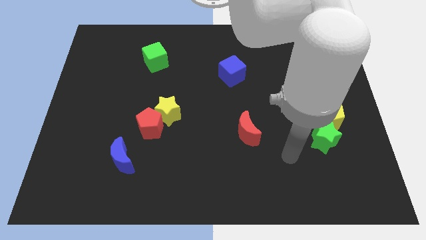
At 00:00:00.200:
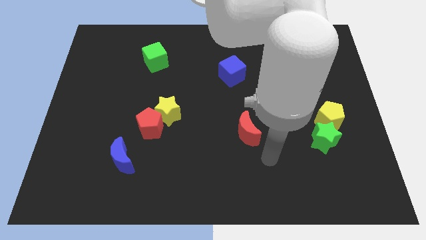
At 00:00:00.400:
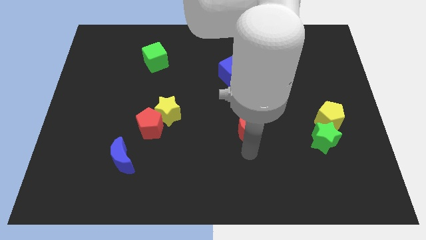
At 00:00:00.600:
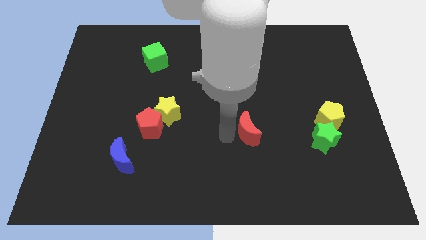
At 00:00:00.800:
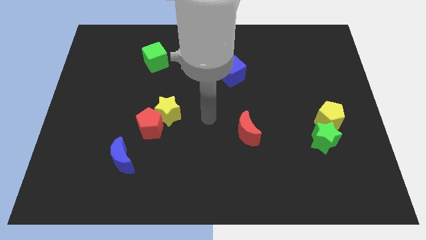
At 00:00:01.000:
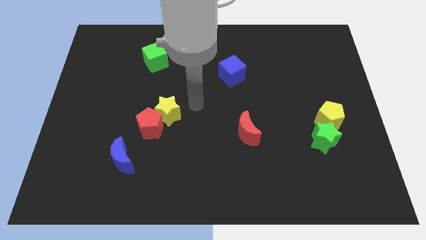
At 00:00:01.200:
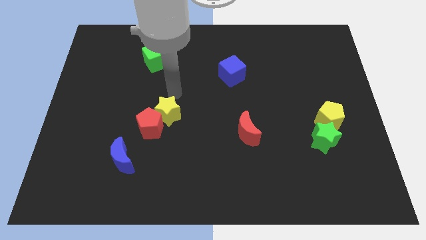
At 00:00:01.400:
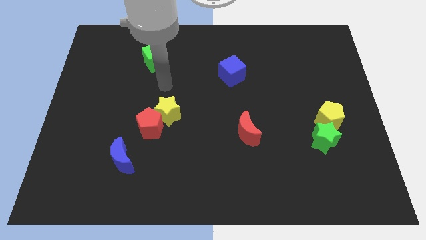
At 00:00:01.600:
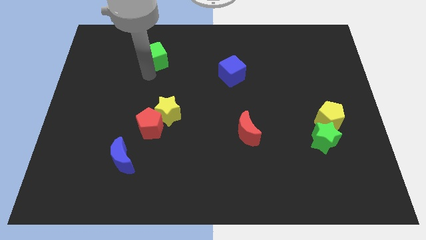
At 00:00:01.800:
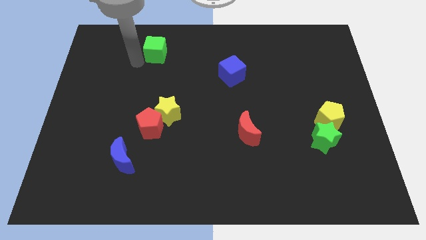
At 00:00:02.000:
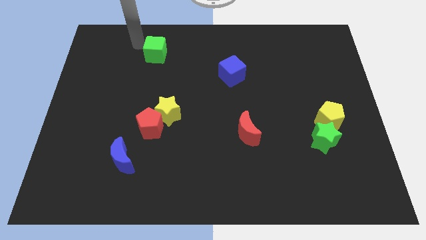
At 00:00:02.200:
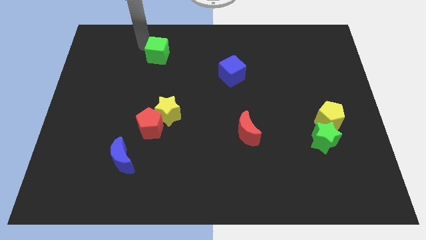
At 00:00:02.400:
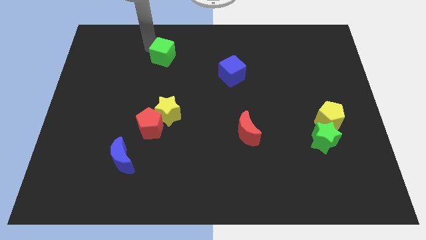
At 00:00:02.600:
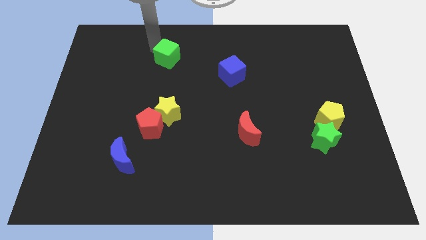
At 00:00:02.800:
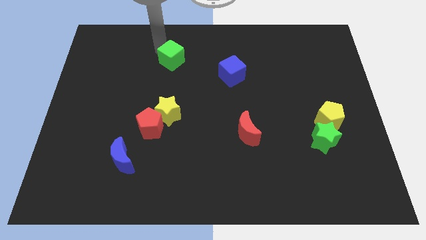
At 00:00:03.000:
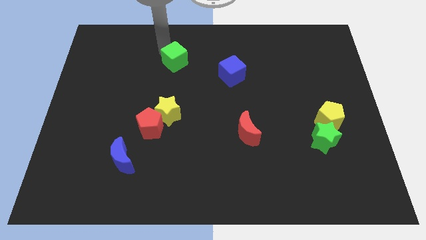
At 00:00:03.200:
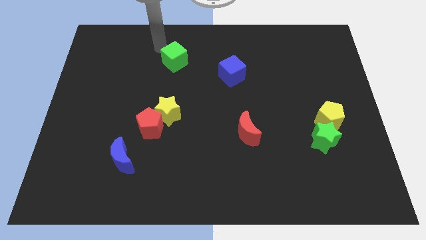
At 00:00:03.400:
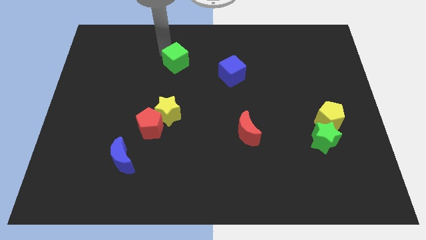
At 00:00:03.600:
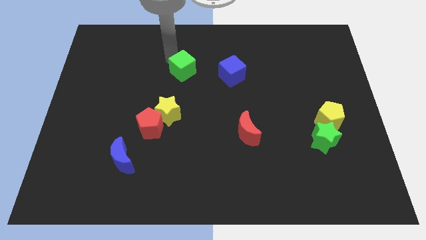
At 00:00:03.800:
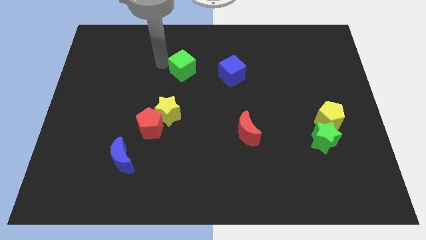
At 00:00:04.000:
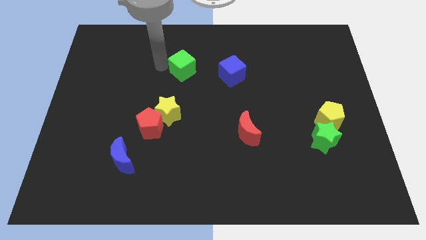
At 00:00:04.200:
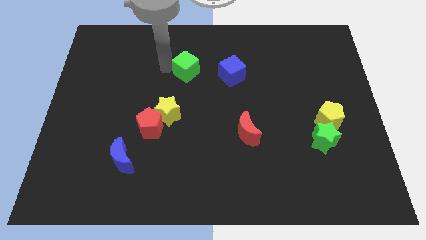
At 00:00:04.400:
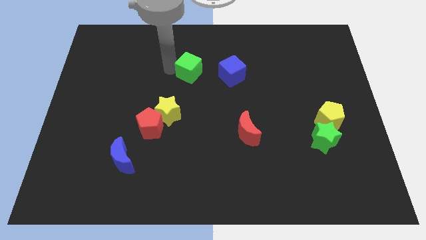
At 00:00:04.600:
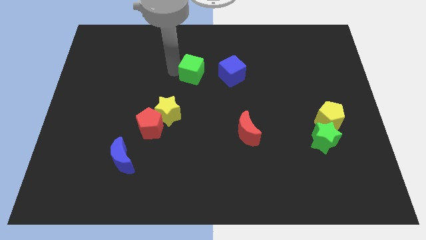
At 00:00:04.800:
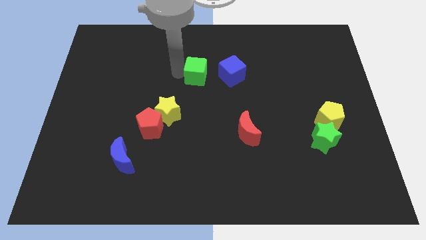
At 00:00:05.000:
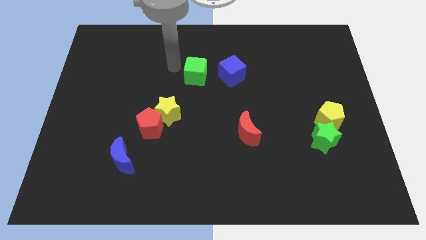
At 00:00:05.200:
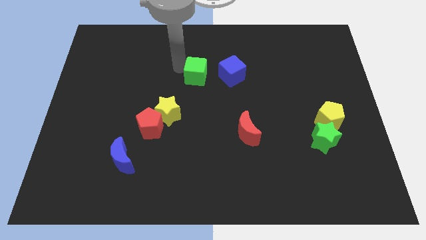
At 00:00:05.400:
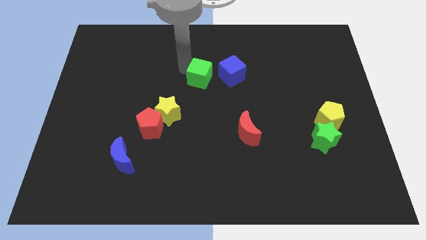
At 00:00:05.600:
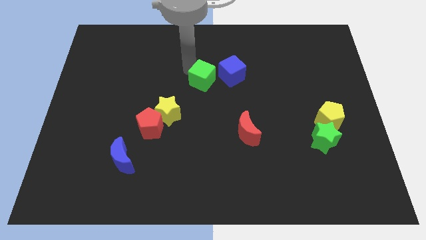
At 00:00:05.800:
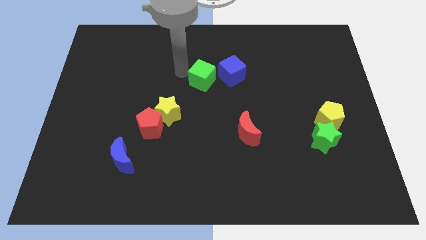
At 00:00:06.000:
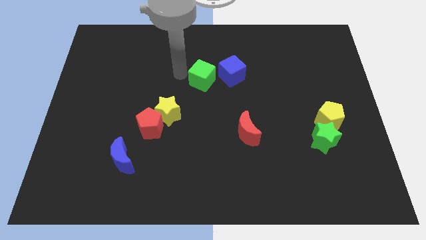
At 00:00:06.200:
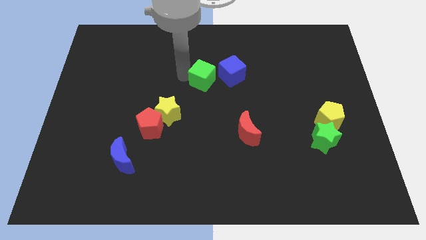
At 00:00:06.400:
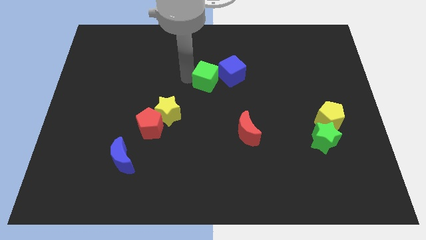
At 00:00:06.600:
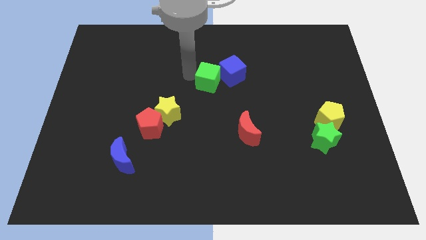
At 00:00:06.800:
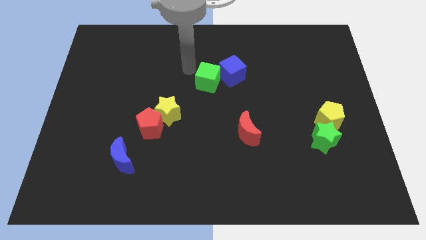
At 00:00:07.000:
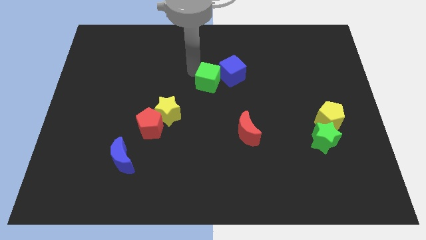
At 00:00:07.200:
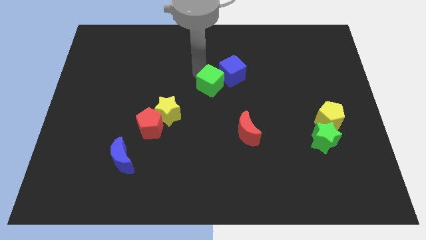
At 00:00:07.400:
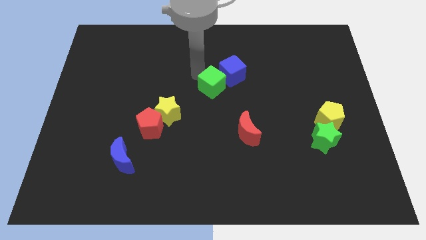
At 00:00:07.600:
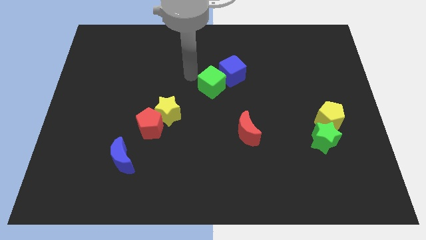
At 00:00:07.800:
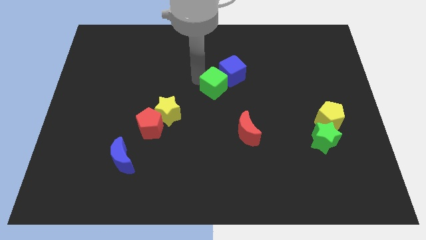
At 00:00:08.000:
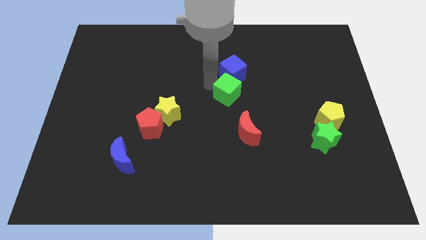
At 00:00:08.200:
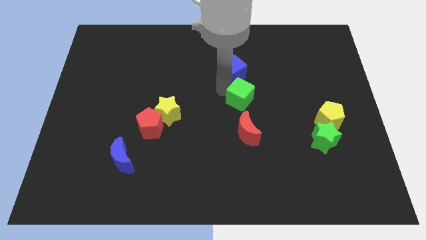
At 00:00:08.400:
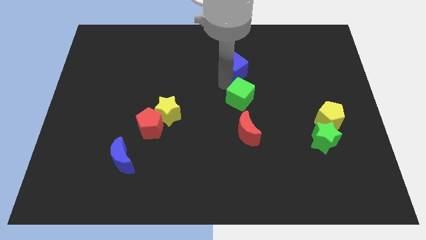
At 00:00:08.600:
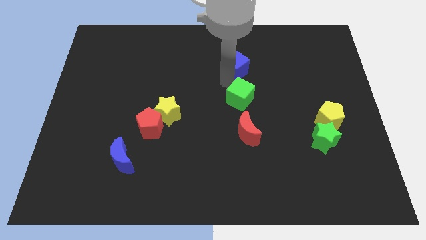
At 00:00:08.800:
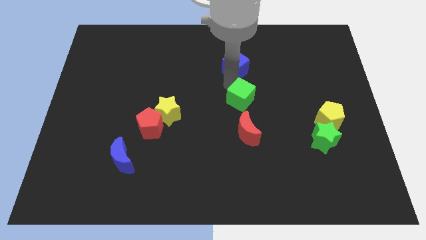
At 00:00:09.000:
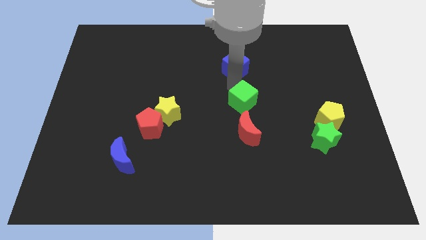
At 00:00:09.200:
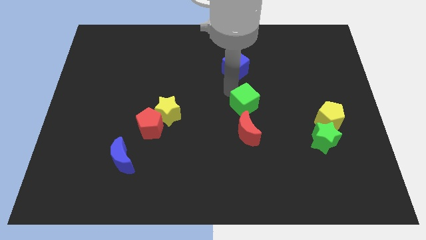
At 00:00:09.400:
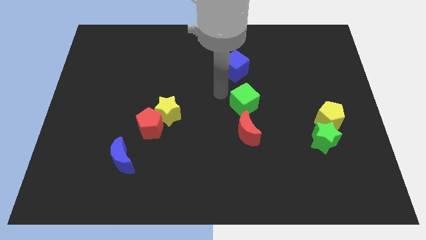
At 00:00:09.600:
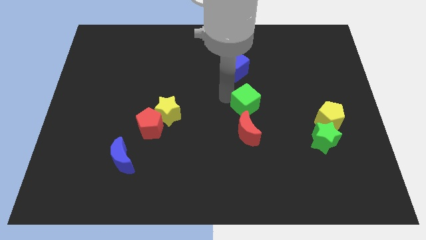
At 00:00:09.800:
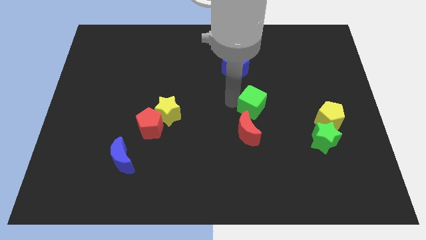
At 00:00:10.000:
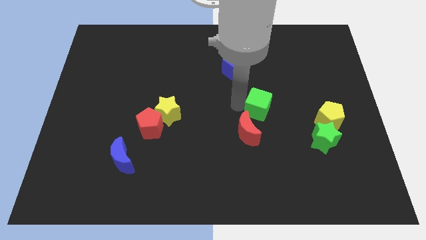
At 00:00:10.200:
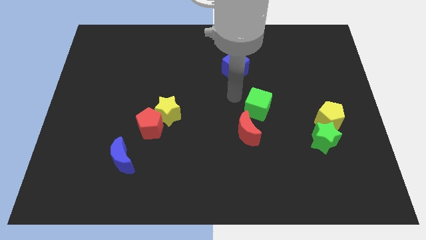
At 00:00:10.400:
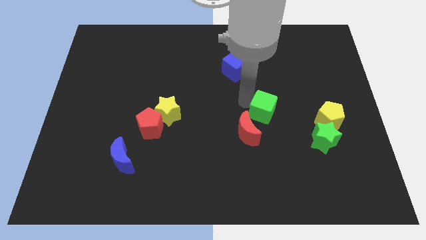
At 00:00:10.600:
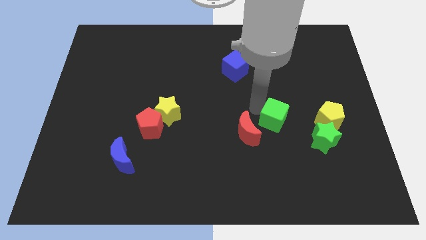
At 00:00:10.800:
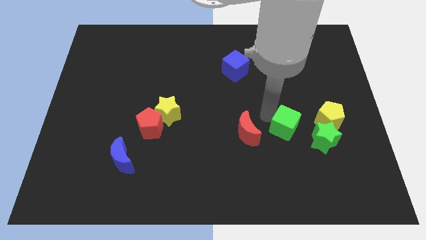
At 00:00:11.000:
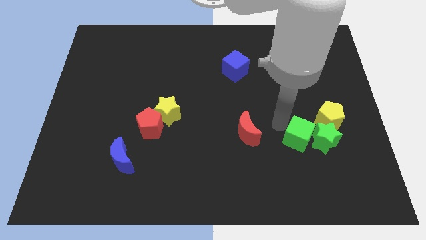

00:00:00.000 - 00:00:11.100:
put the green cube to the green star

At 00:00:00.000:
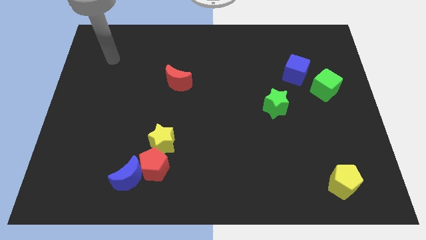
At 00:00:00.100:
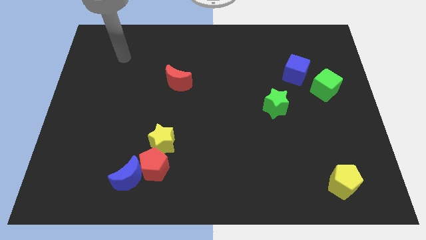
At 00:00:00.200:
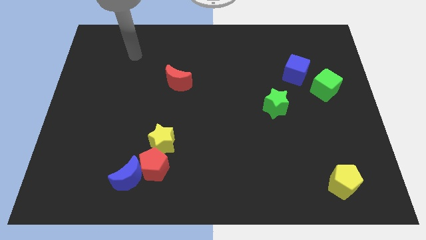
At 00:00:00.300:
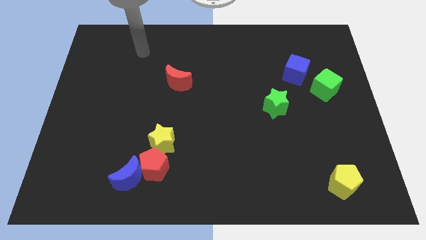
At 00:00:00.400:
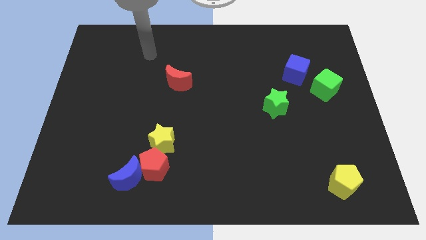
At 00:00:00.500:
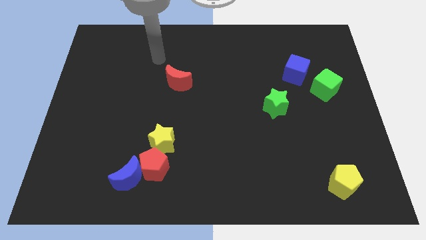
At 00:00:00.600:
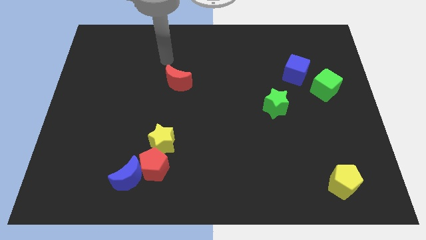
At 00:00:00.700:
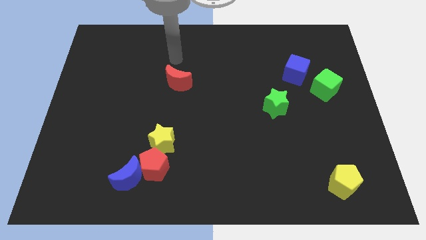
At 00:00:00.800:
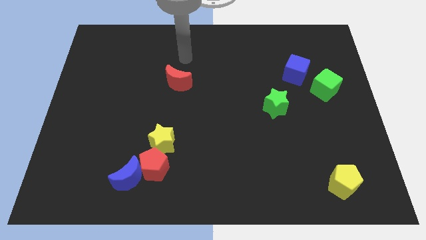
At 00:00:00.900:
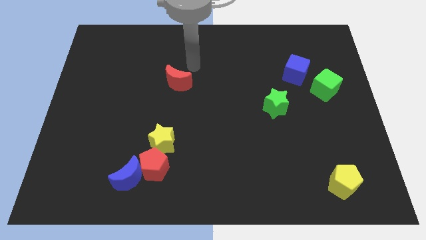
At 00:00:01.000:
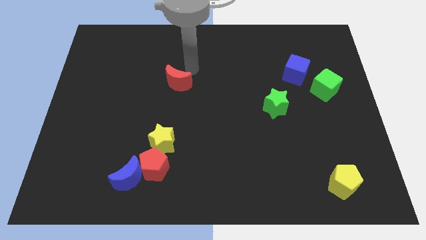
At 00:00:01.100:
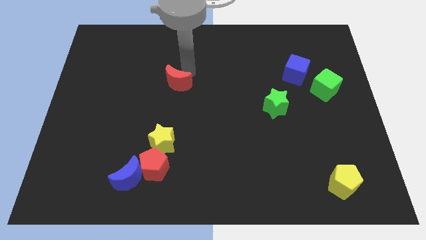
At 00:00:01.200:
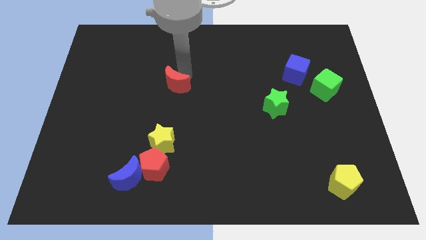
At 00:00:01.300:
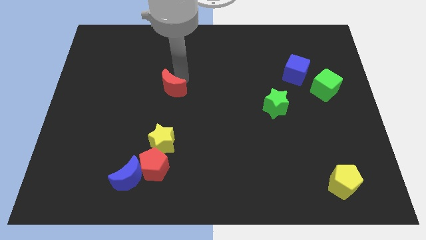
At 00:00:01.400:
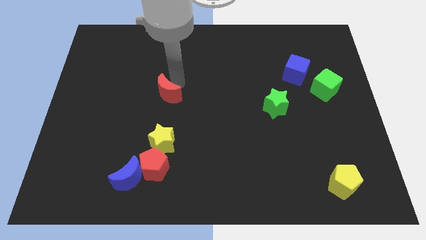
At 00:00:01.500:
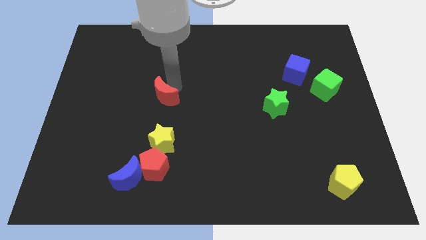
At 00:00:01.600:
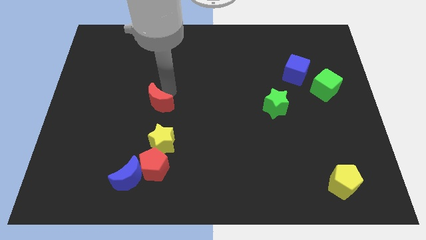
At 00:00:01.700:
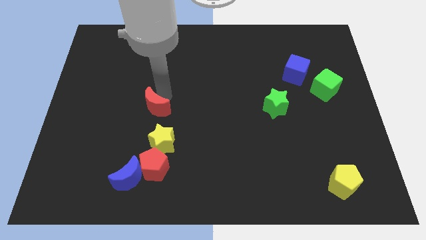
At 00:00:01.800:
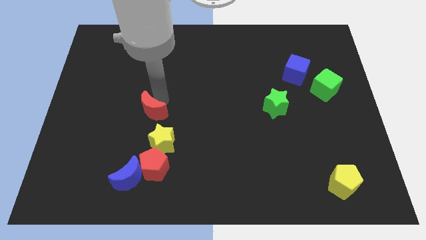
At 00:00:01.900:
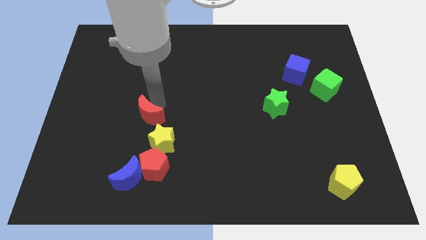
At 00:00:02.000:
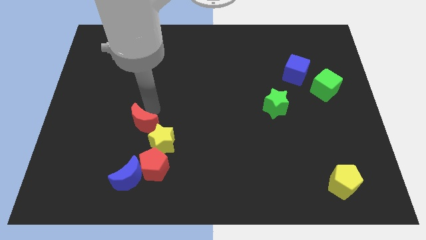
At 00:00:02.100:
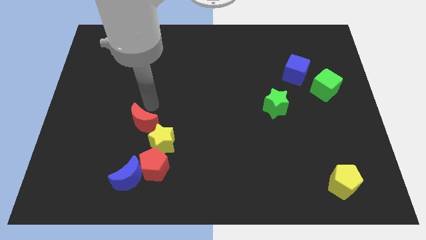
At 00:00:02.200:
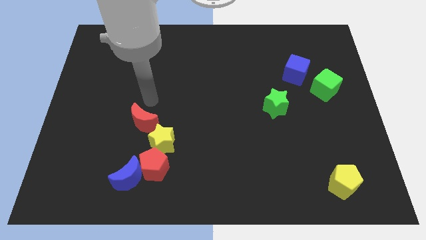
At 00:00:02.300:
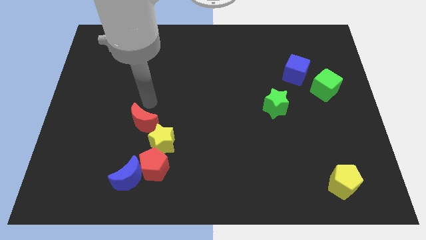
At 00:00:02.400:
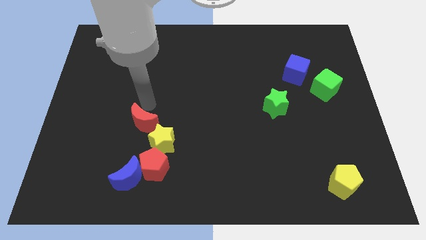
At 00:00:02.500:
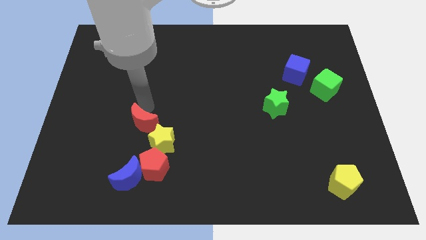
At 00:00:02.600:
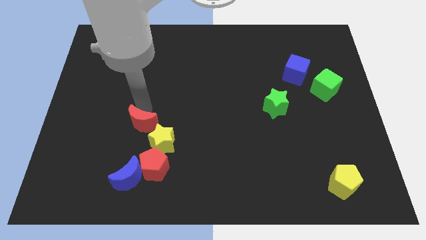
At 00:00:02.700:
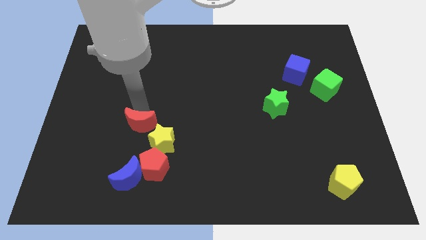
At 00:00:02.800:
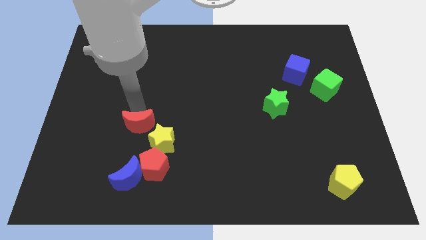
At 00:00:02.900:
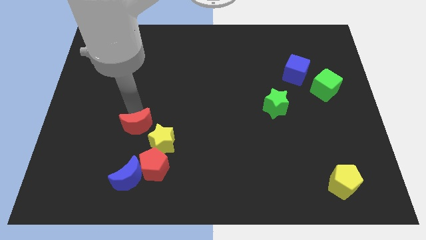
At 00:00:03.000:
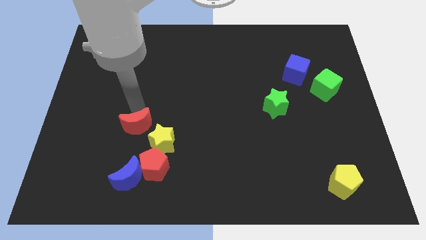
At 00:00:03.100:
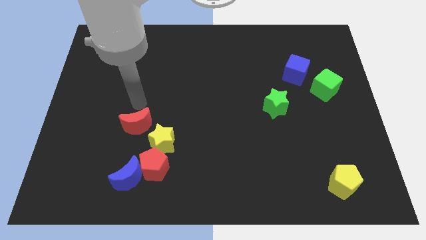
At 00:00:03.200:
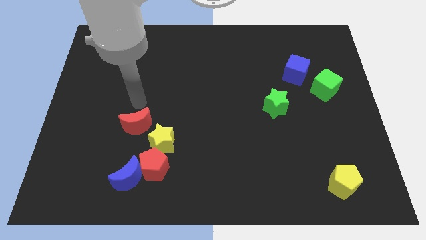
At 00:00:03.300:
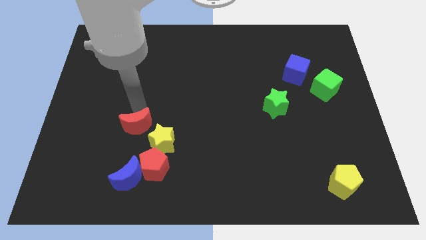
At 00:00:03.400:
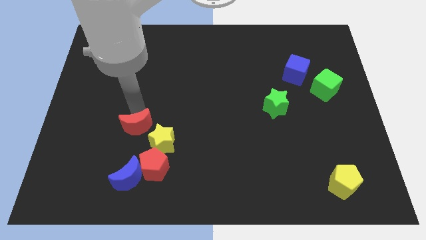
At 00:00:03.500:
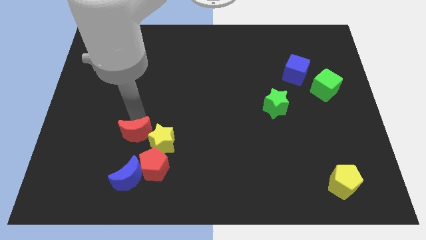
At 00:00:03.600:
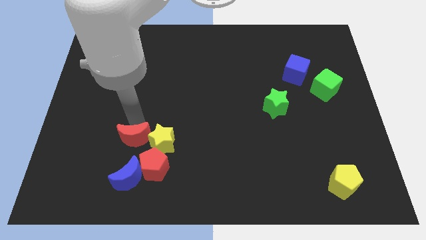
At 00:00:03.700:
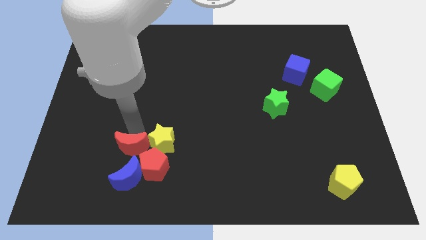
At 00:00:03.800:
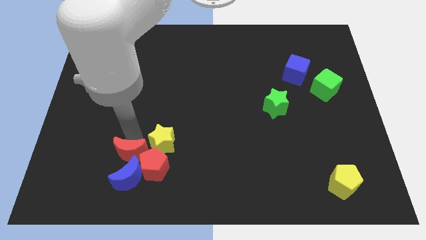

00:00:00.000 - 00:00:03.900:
put the red moon to the blue moon
